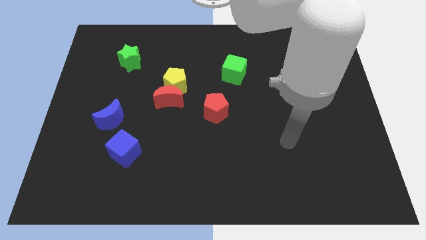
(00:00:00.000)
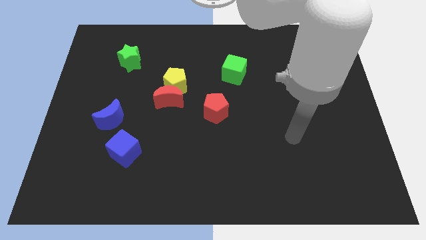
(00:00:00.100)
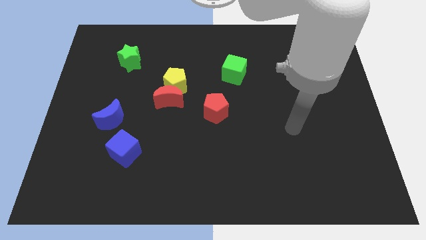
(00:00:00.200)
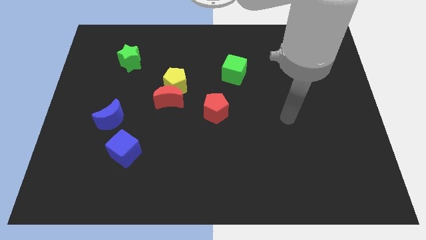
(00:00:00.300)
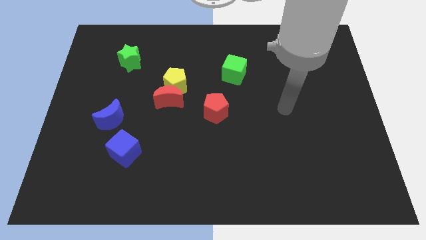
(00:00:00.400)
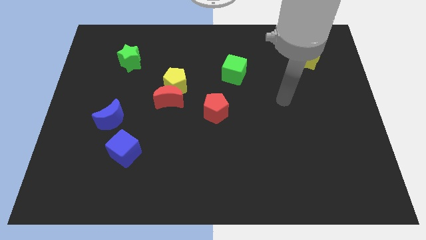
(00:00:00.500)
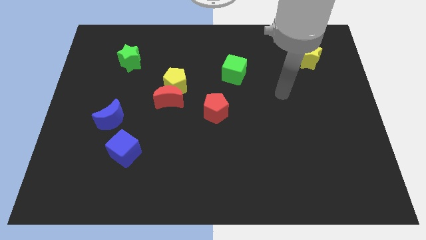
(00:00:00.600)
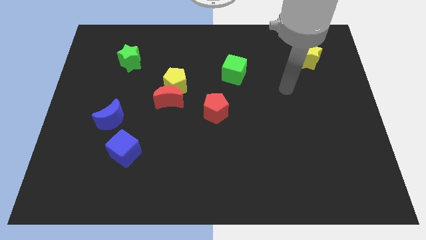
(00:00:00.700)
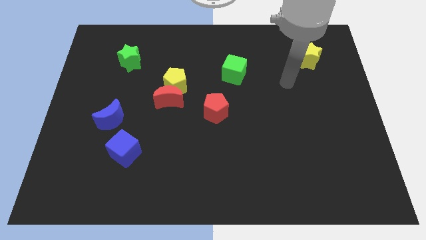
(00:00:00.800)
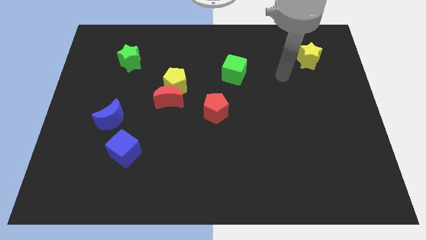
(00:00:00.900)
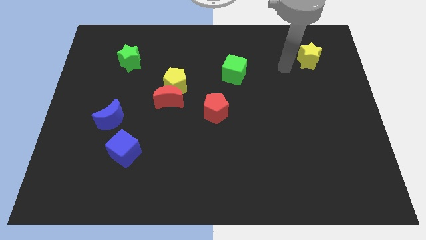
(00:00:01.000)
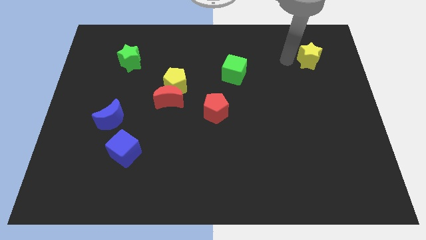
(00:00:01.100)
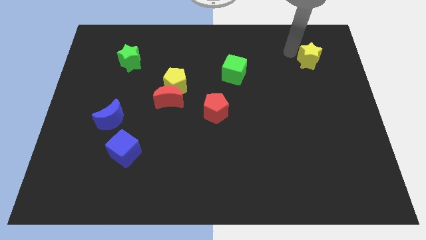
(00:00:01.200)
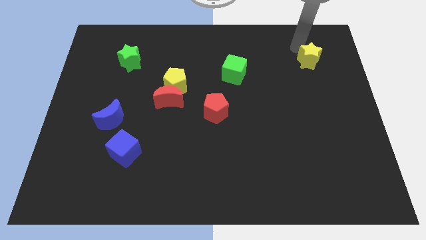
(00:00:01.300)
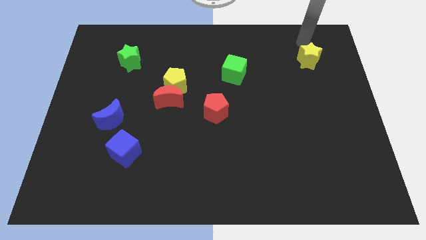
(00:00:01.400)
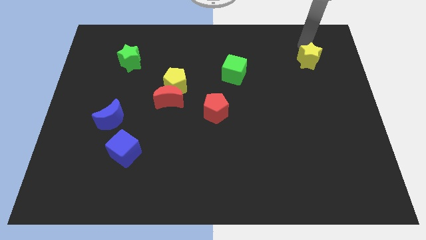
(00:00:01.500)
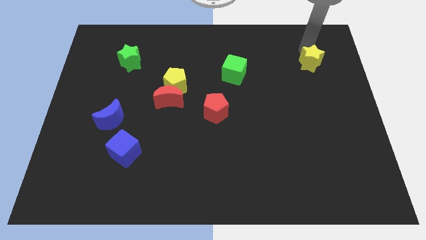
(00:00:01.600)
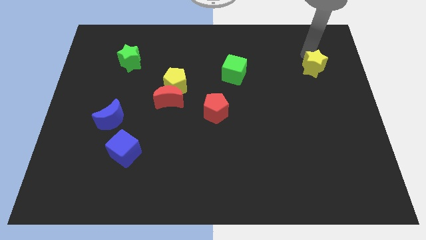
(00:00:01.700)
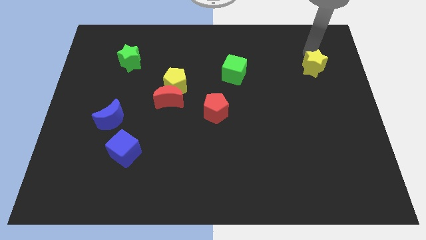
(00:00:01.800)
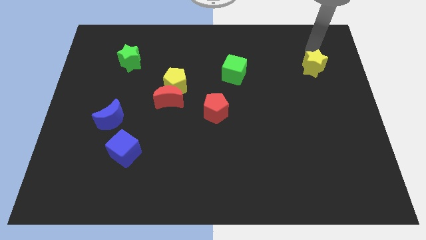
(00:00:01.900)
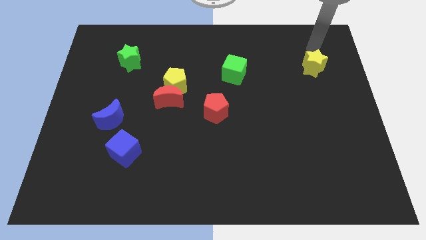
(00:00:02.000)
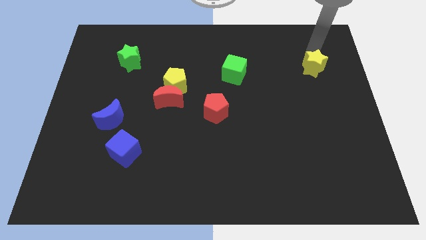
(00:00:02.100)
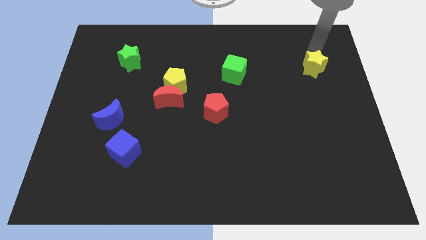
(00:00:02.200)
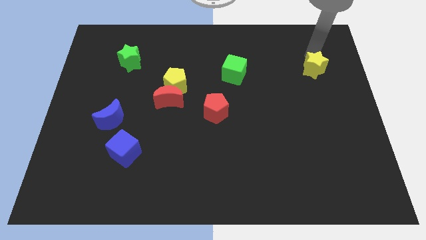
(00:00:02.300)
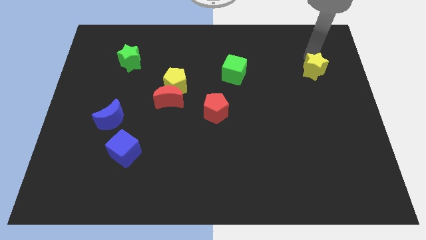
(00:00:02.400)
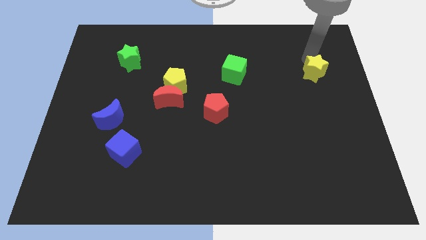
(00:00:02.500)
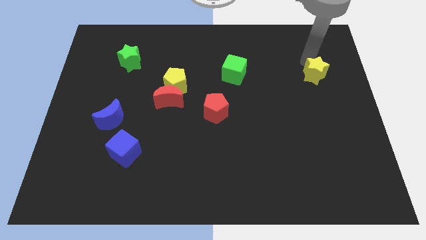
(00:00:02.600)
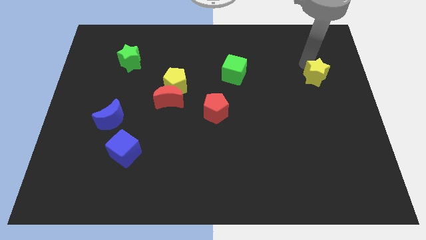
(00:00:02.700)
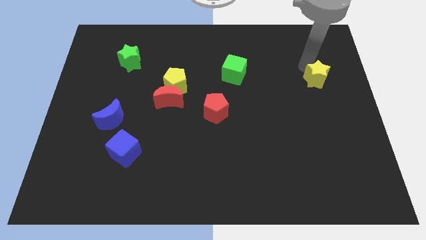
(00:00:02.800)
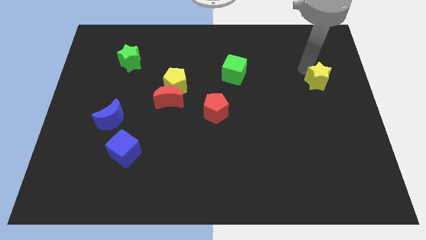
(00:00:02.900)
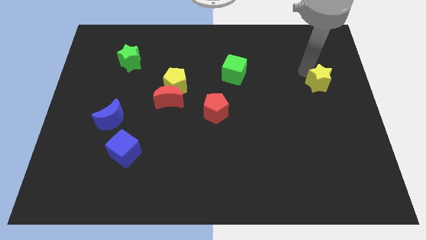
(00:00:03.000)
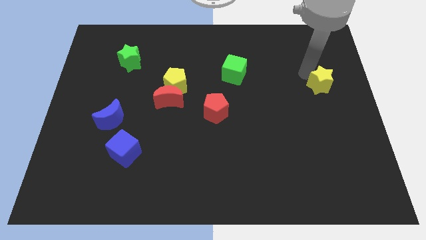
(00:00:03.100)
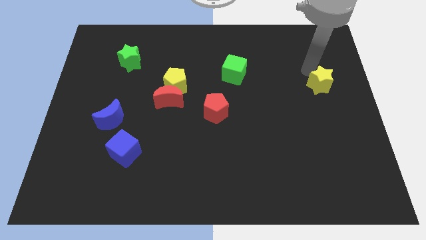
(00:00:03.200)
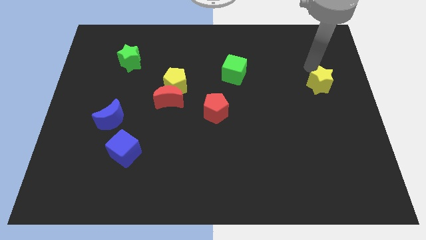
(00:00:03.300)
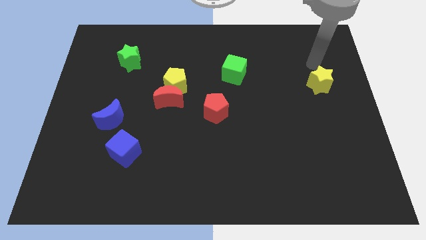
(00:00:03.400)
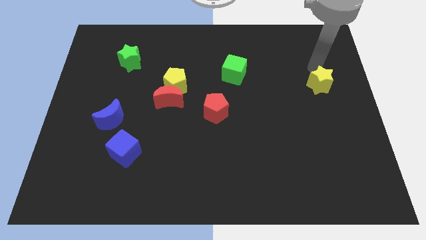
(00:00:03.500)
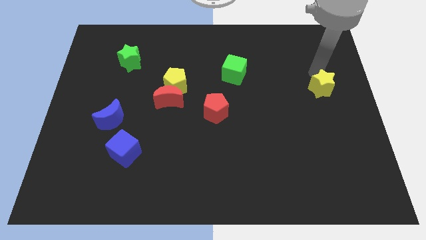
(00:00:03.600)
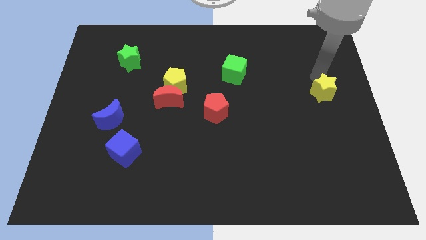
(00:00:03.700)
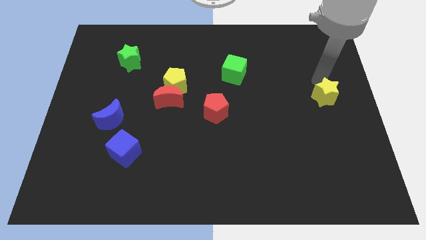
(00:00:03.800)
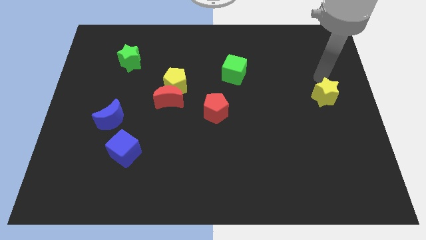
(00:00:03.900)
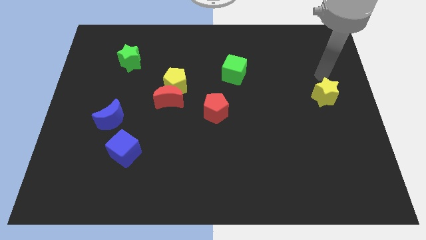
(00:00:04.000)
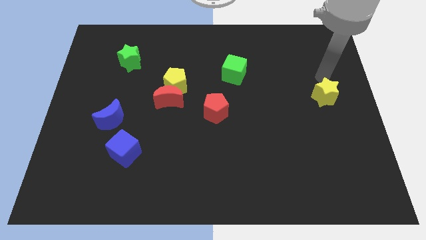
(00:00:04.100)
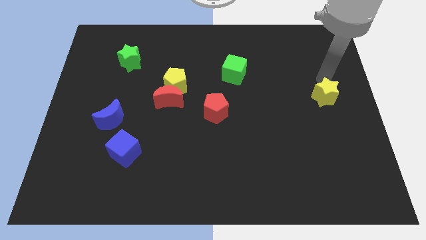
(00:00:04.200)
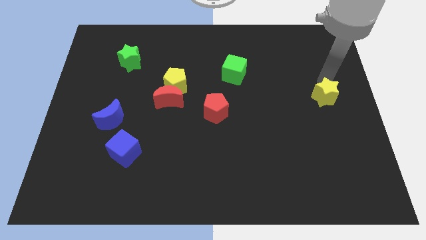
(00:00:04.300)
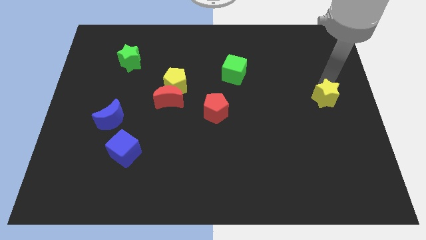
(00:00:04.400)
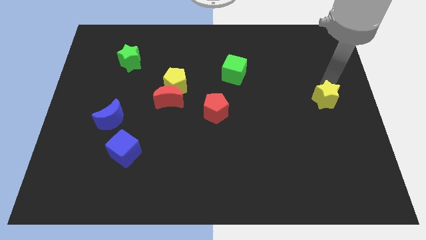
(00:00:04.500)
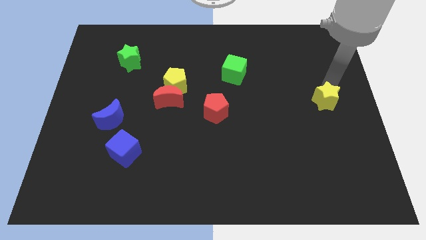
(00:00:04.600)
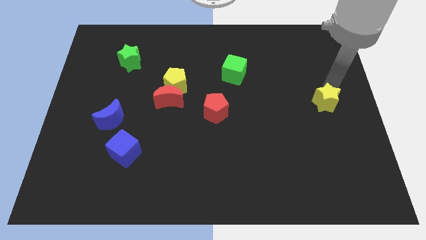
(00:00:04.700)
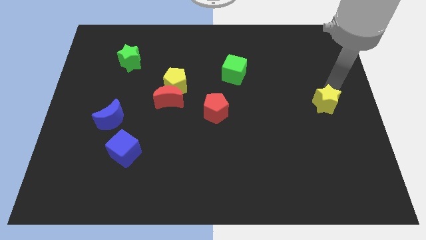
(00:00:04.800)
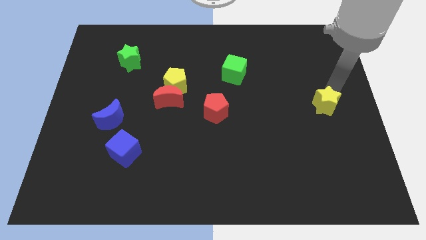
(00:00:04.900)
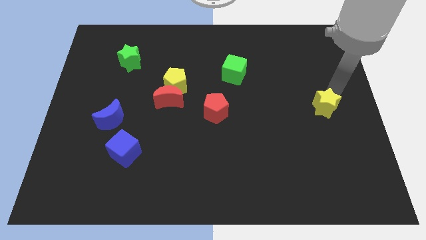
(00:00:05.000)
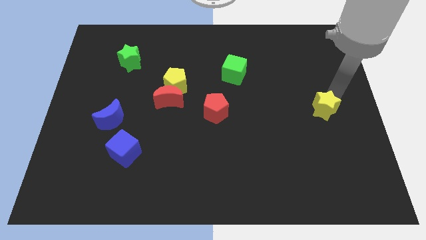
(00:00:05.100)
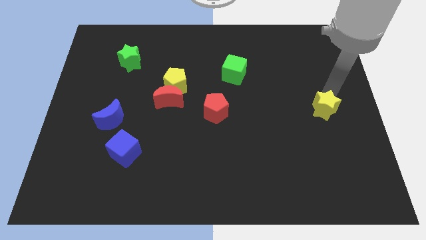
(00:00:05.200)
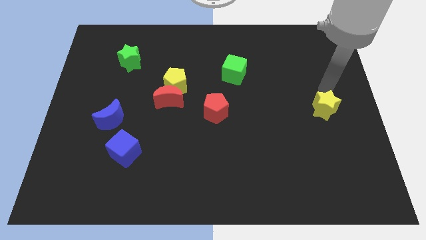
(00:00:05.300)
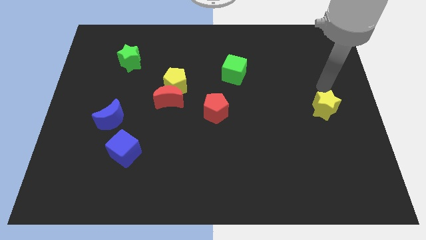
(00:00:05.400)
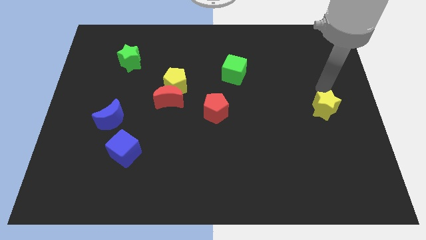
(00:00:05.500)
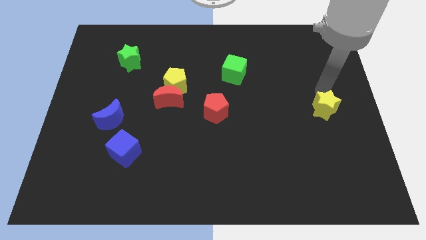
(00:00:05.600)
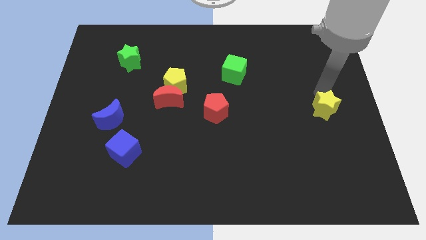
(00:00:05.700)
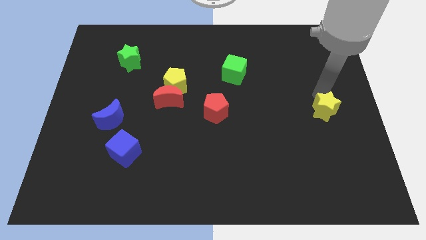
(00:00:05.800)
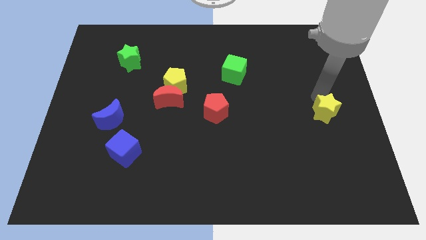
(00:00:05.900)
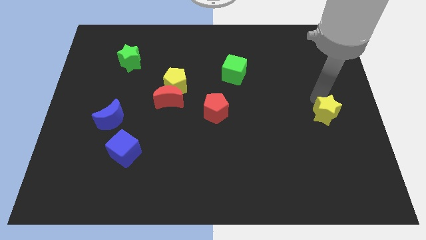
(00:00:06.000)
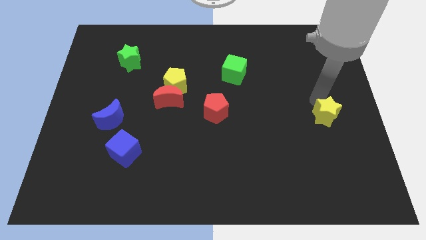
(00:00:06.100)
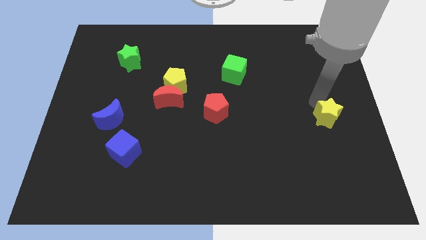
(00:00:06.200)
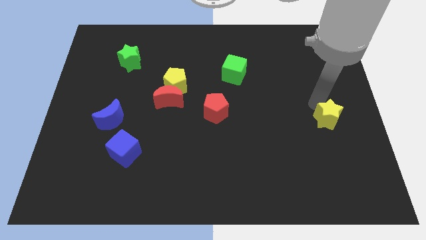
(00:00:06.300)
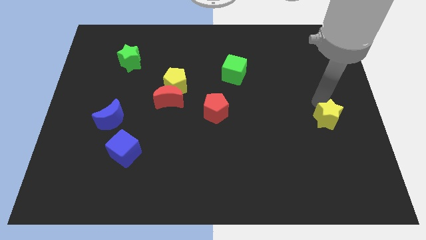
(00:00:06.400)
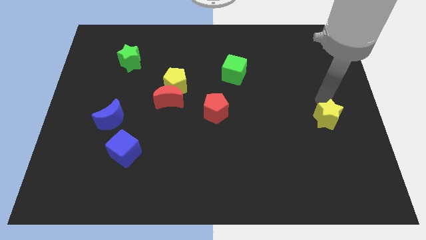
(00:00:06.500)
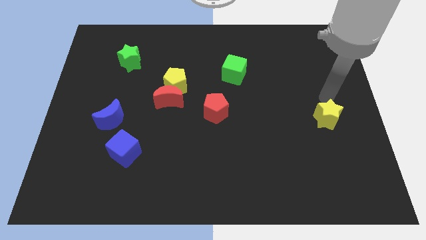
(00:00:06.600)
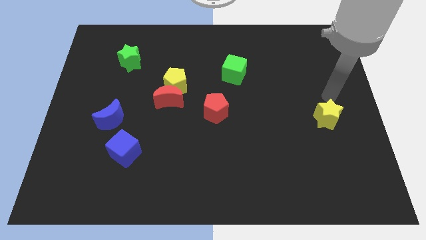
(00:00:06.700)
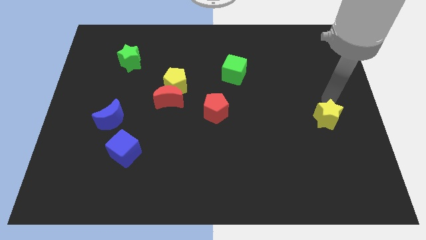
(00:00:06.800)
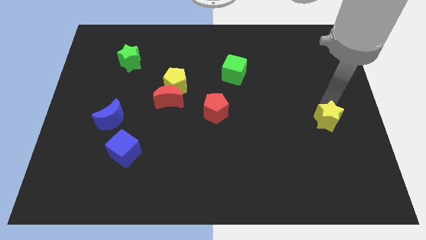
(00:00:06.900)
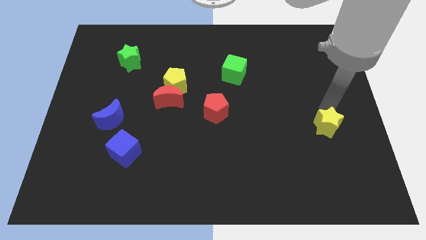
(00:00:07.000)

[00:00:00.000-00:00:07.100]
slide the yellow star down

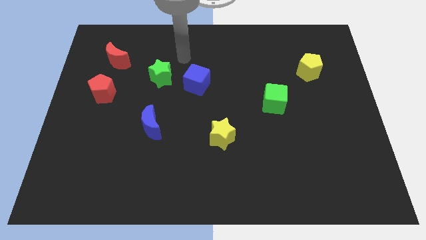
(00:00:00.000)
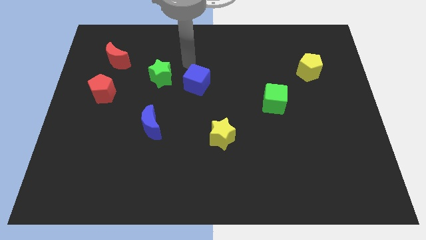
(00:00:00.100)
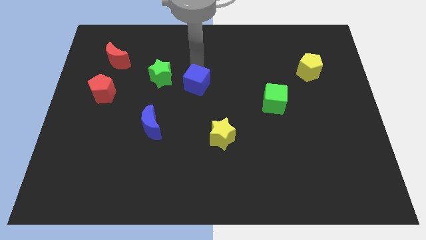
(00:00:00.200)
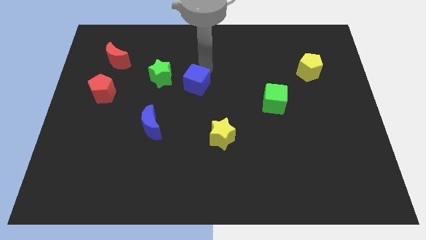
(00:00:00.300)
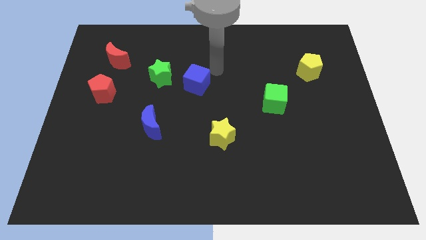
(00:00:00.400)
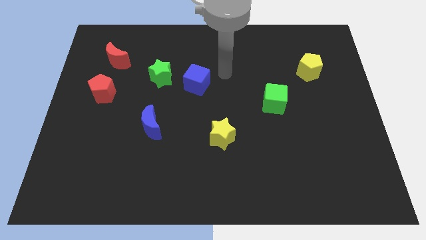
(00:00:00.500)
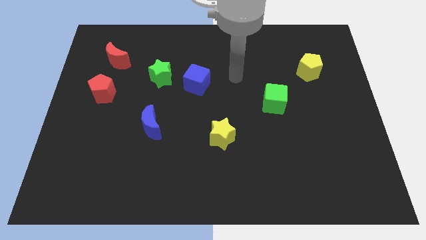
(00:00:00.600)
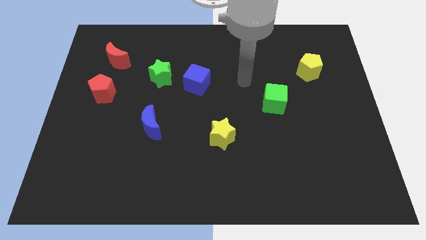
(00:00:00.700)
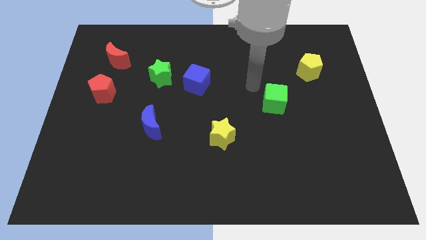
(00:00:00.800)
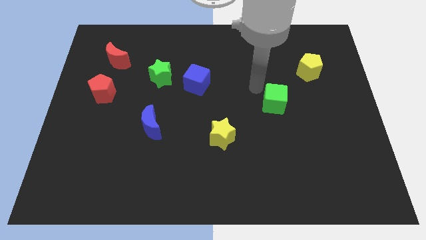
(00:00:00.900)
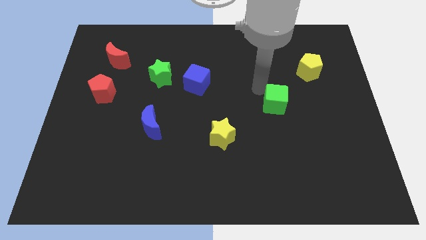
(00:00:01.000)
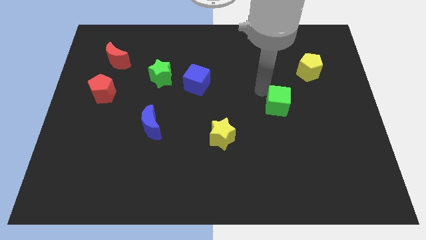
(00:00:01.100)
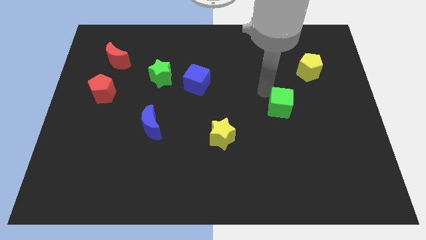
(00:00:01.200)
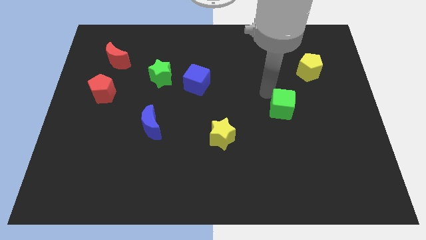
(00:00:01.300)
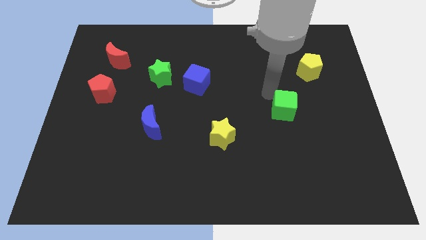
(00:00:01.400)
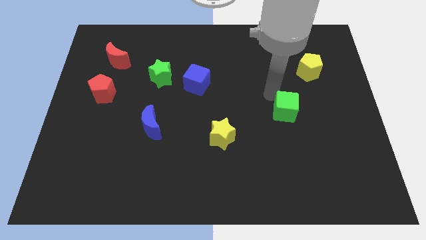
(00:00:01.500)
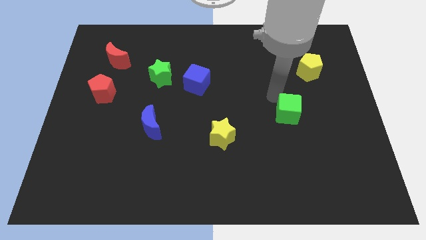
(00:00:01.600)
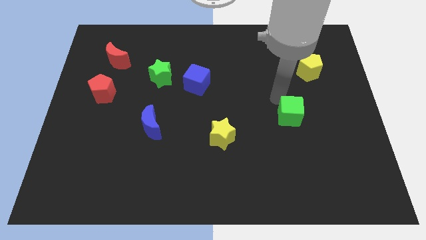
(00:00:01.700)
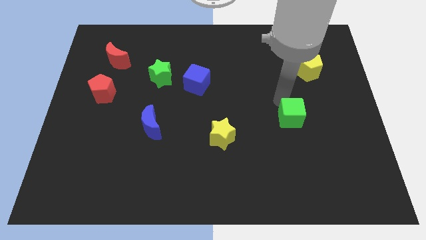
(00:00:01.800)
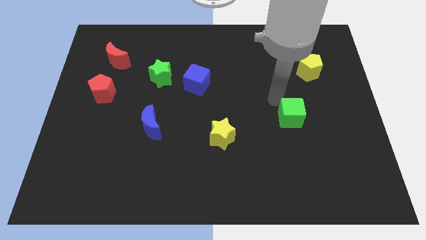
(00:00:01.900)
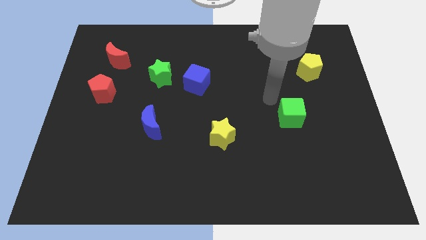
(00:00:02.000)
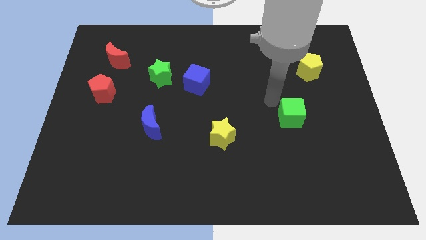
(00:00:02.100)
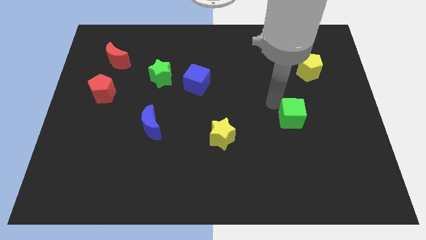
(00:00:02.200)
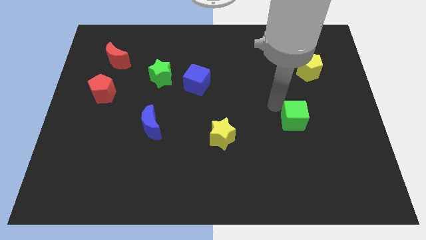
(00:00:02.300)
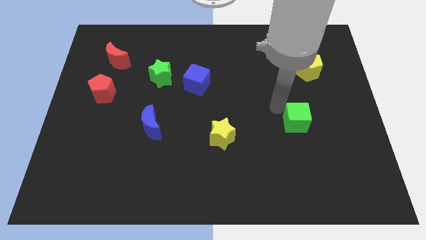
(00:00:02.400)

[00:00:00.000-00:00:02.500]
slightly slide the green cube downwards and right diagonally
